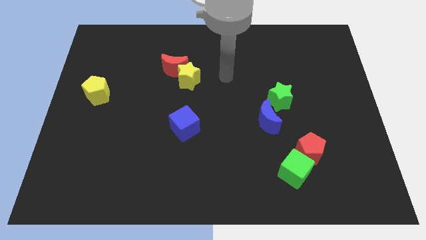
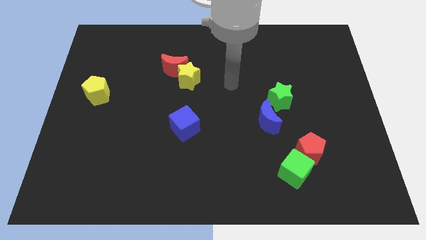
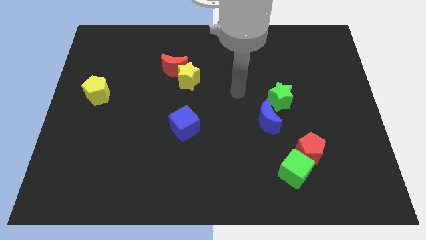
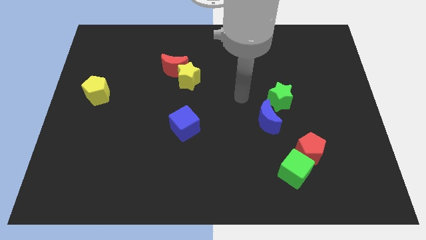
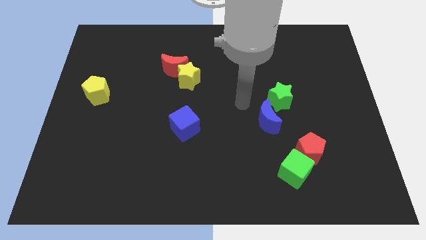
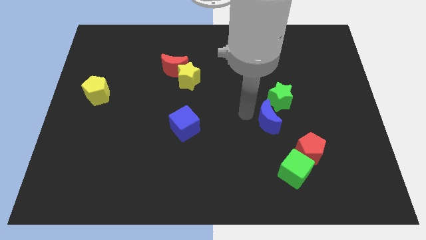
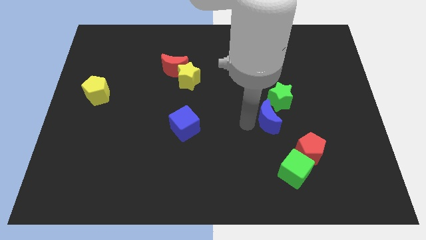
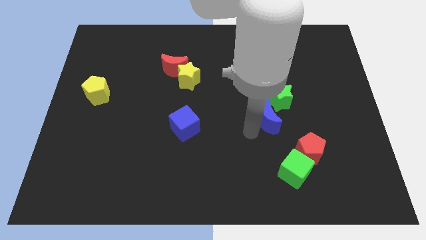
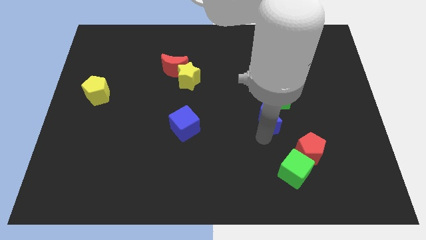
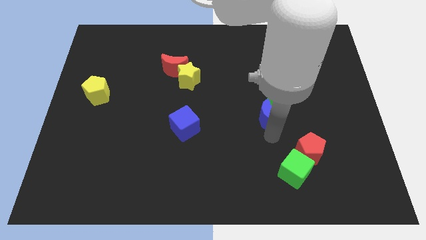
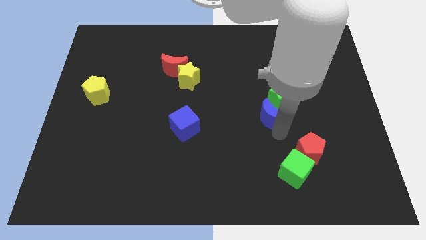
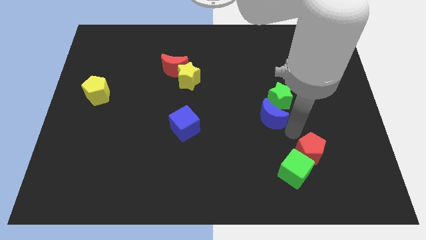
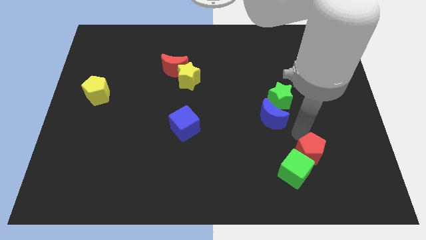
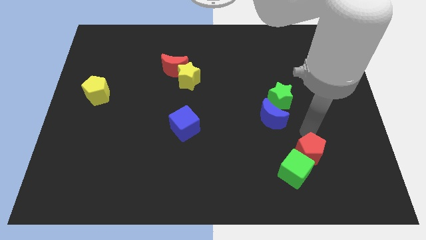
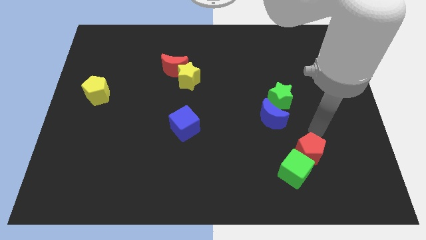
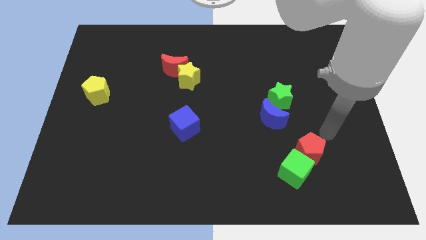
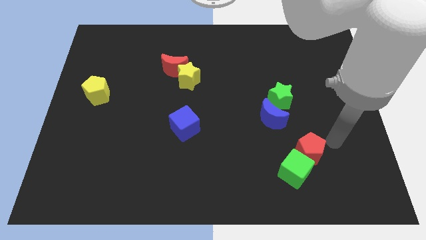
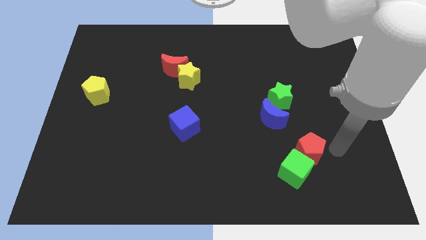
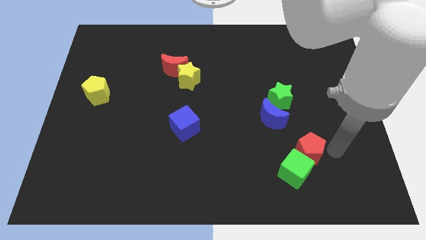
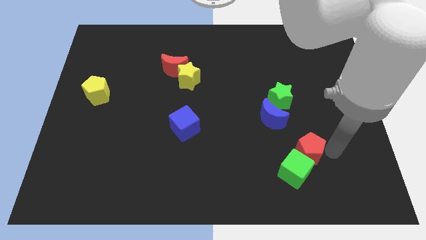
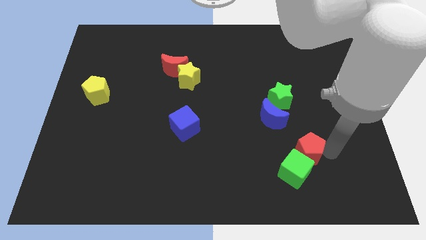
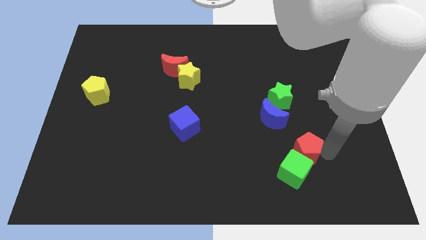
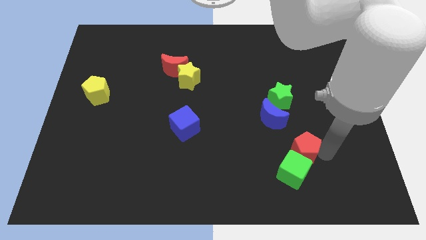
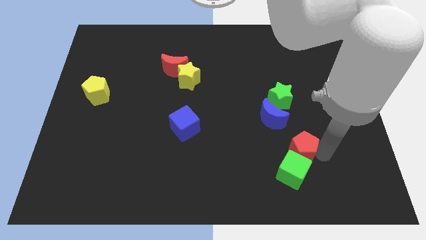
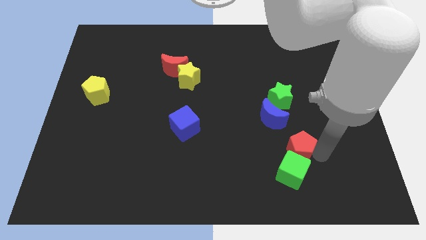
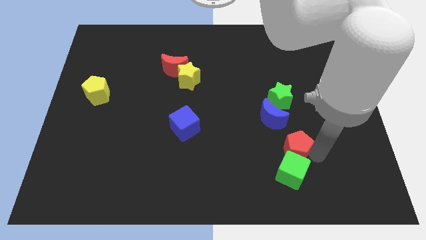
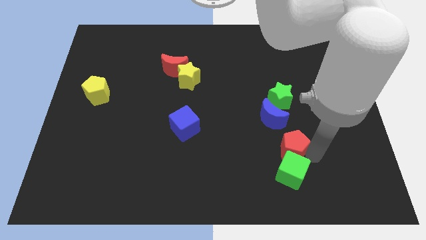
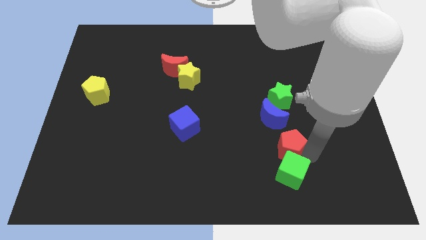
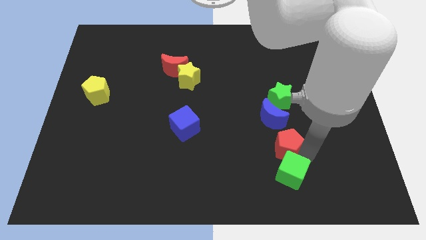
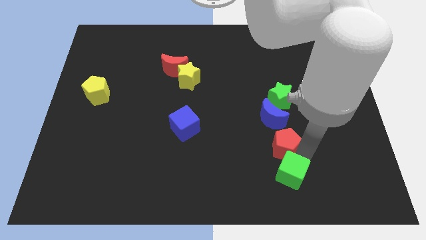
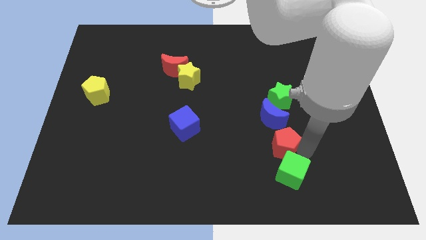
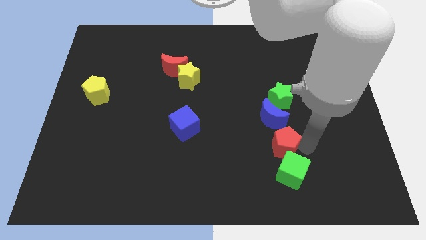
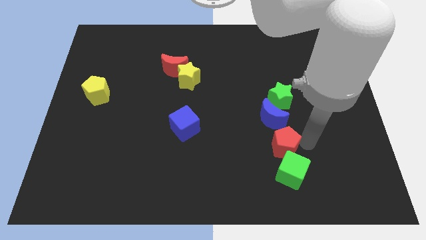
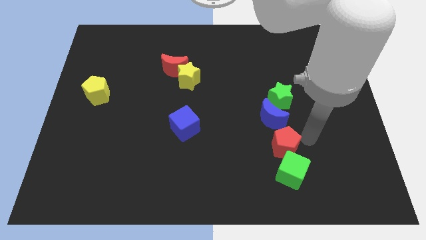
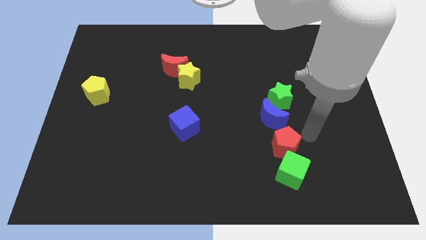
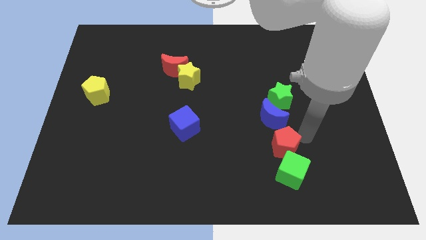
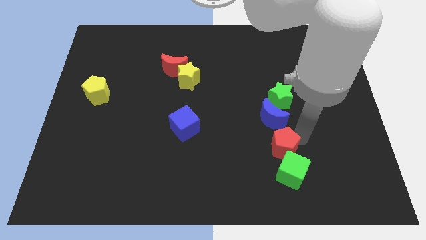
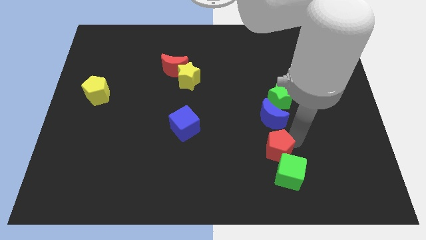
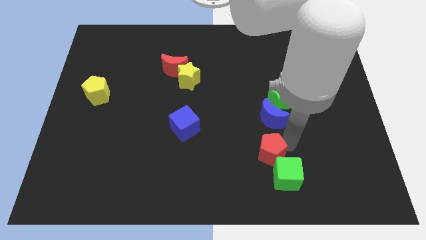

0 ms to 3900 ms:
push the red pentagon to the left slightly

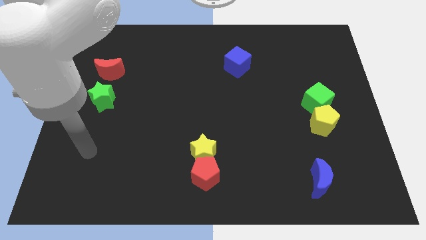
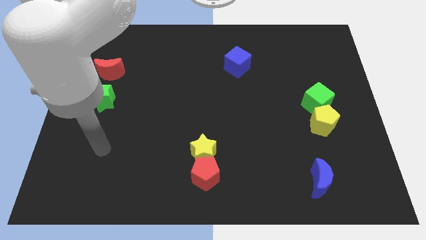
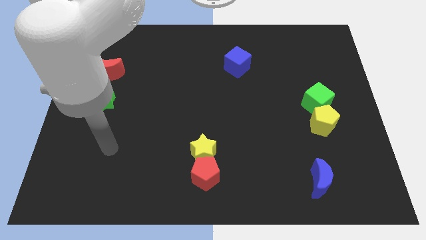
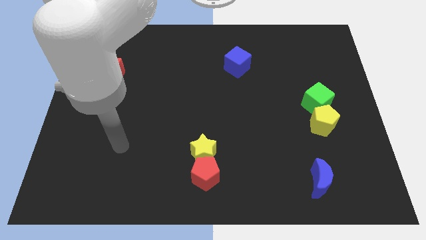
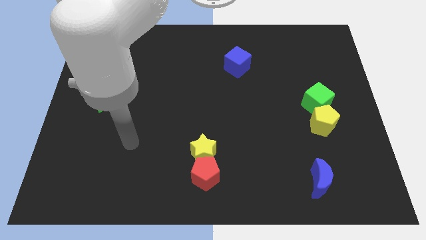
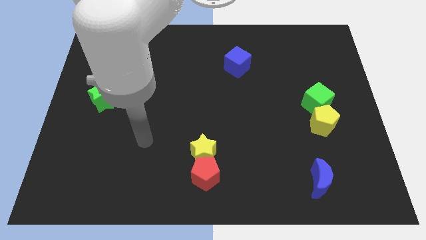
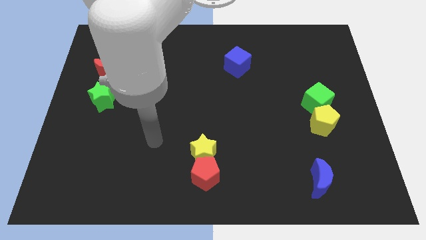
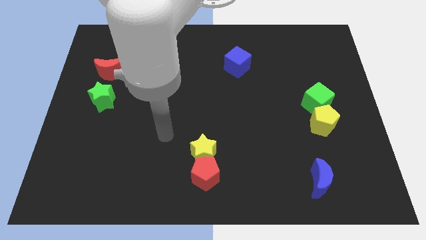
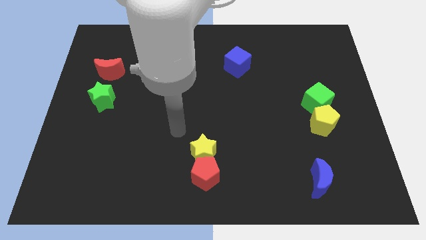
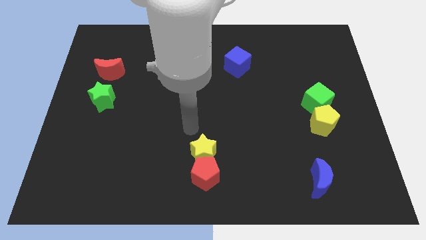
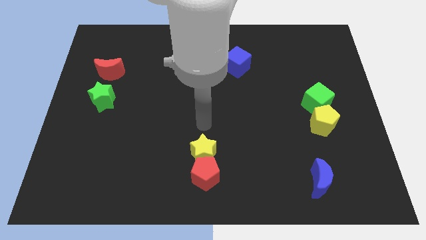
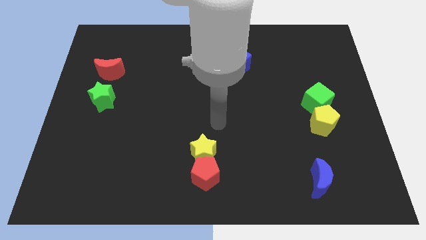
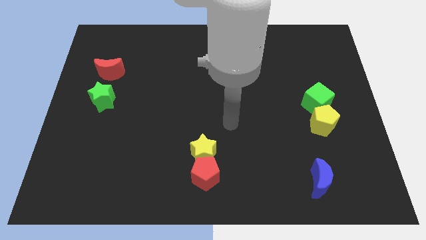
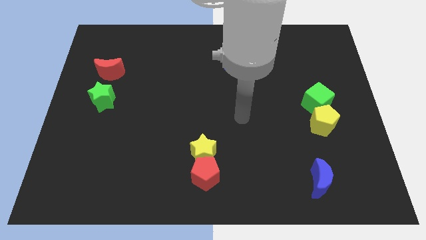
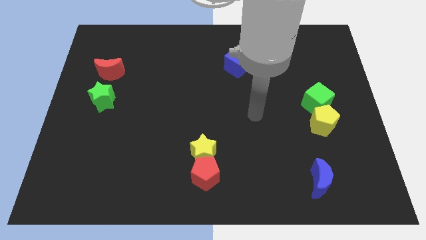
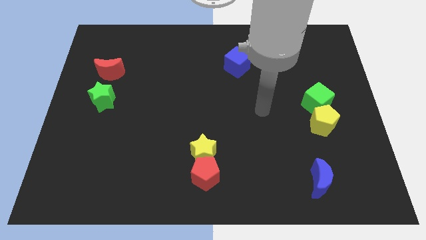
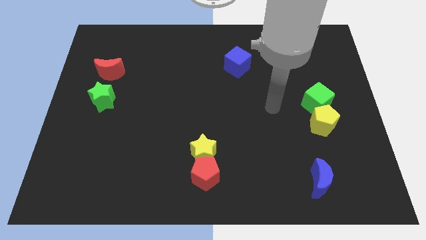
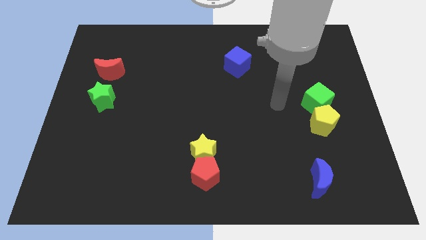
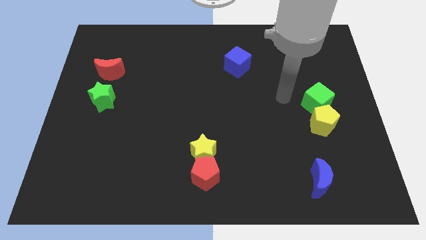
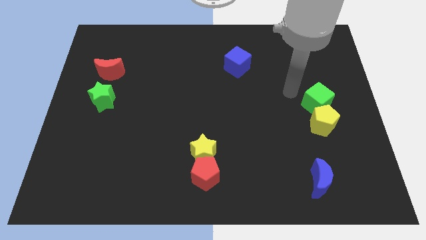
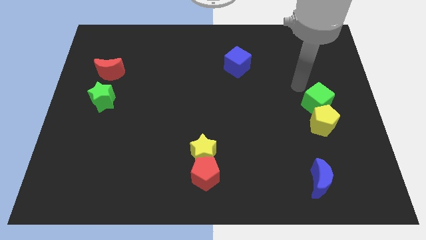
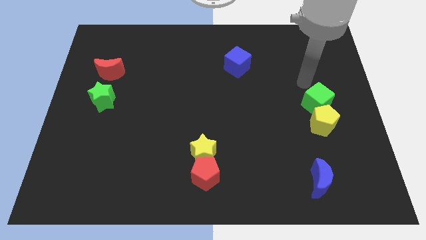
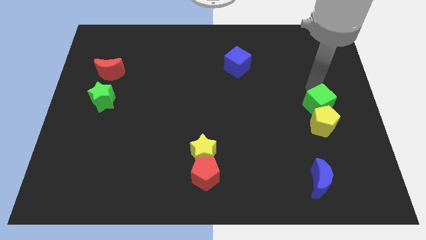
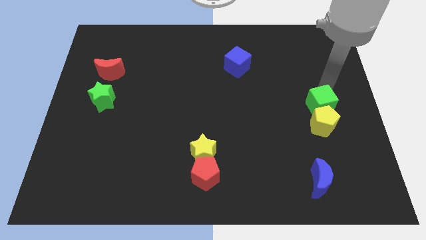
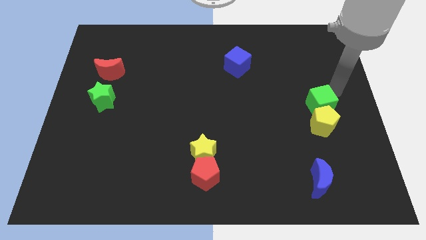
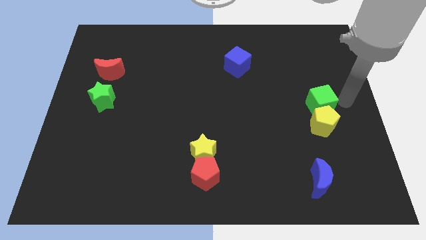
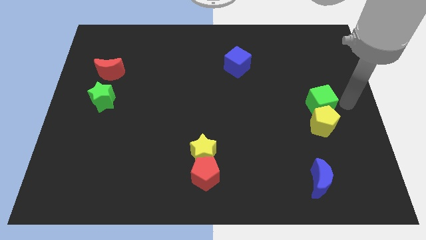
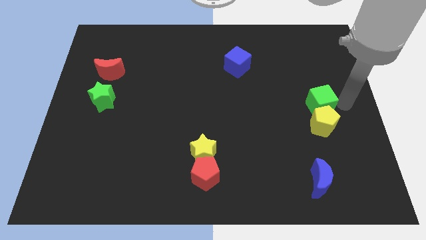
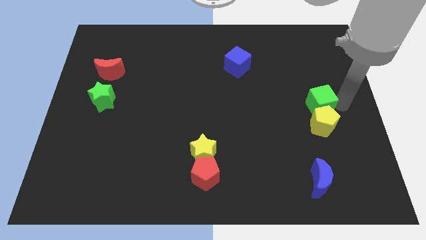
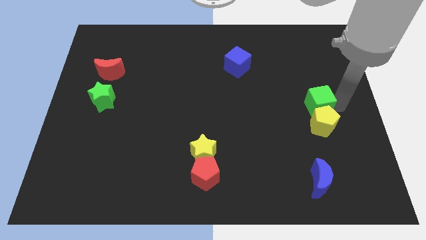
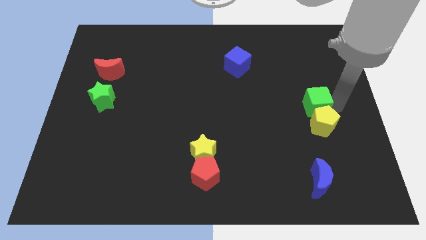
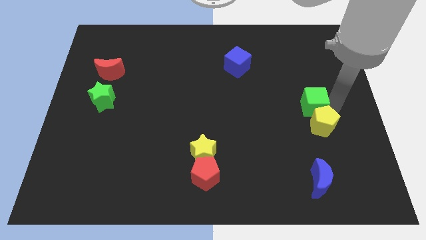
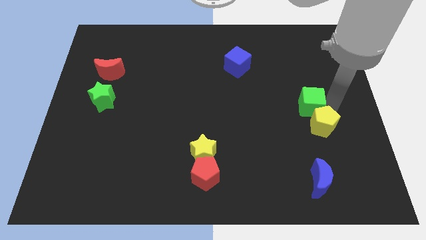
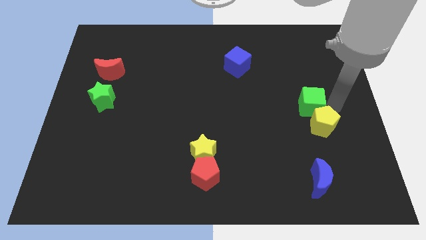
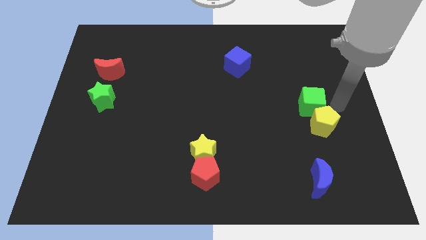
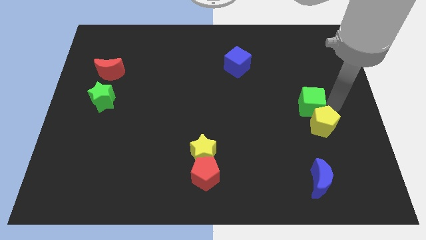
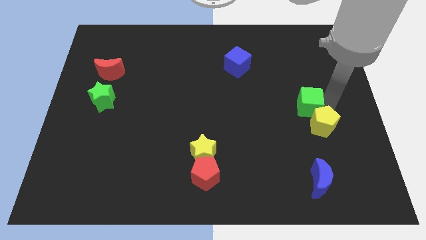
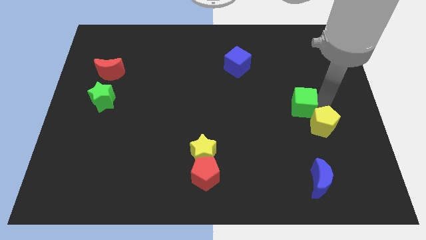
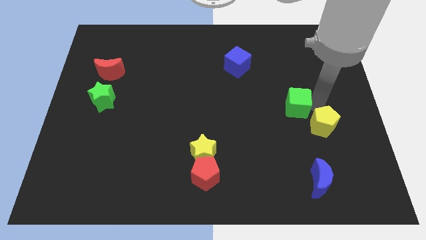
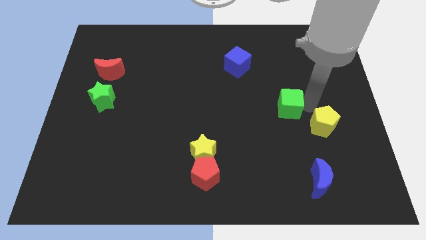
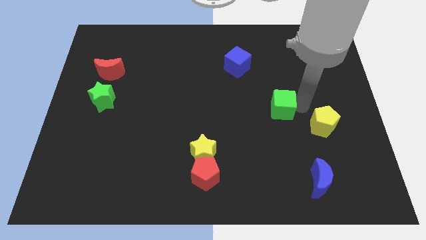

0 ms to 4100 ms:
slightly move the green cube to the left

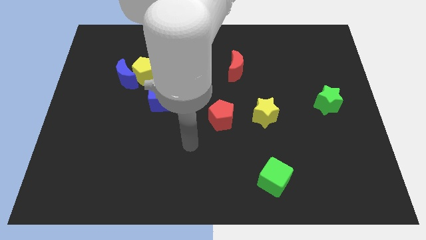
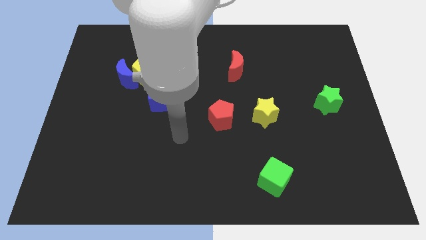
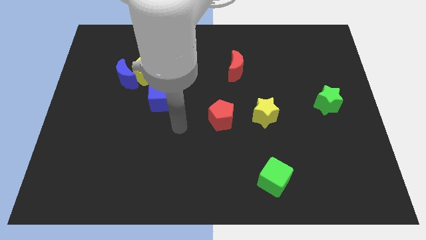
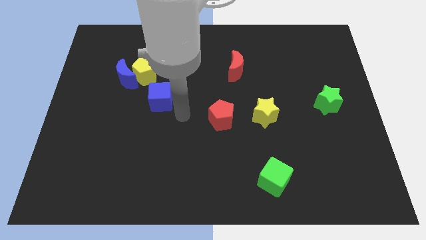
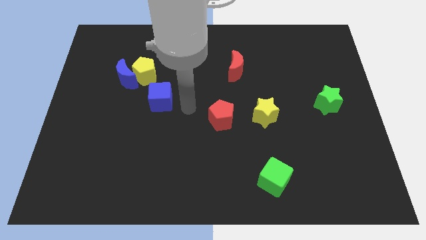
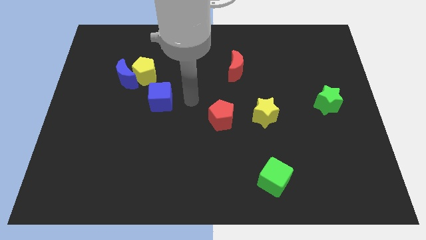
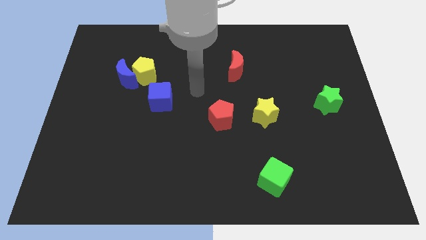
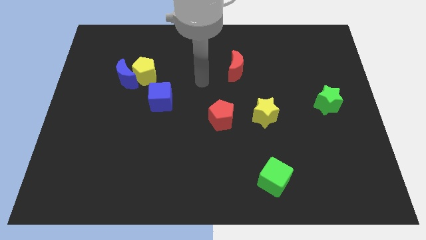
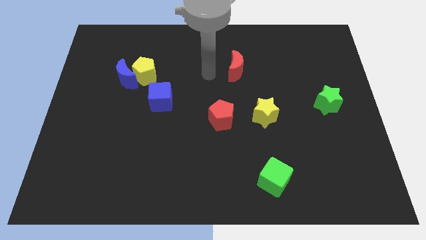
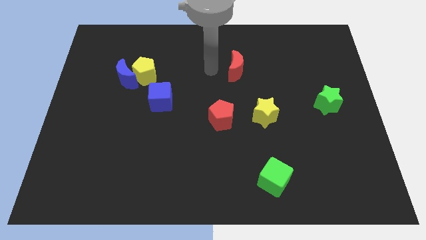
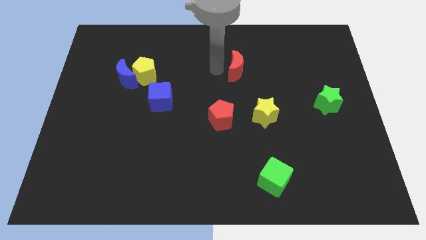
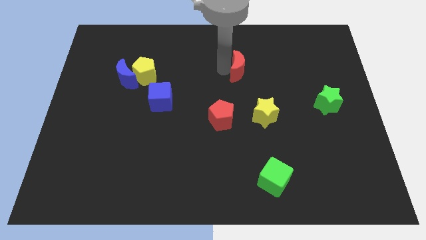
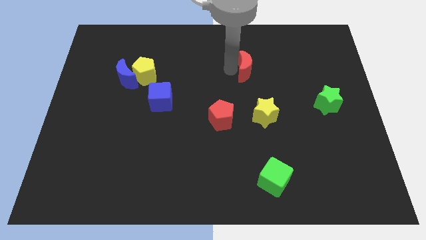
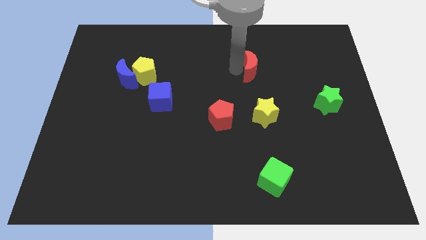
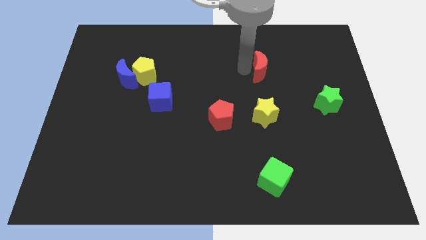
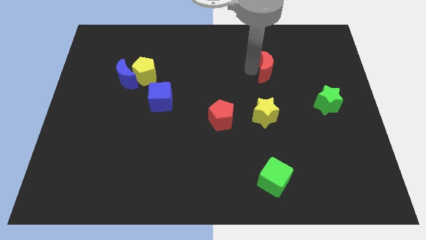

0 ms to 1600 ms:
slide the red moon to the right a little bit
